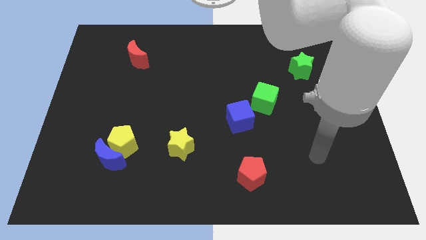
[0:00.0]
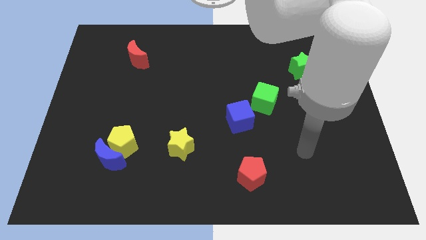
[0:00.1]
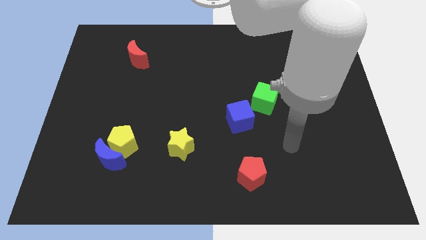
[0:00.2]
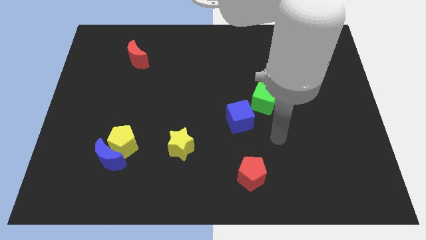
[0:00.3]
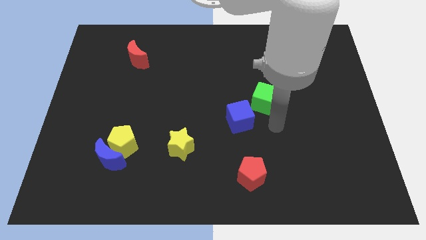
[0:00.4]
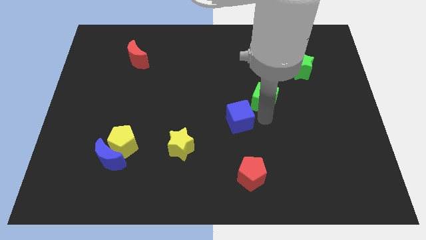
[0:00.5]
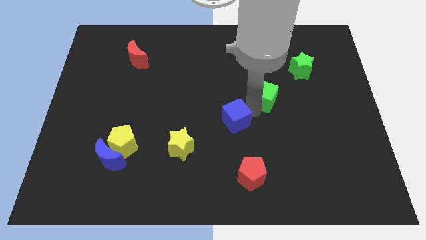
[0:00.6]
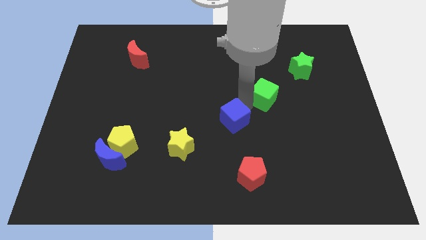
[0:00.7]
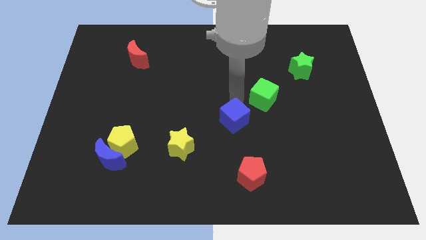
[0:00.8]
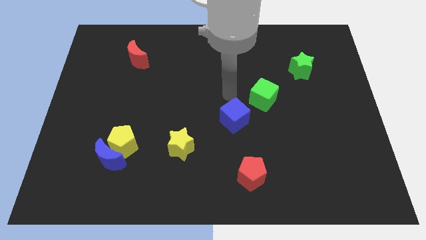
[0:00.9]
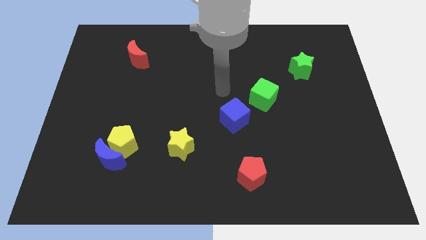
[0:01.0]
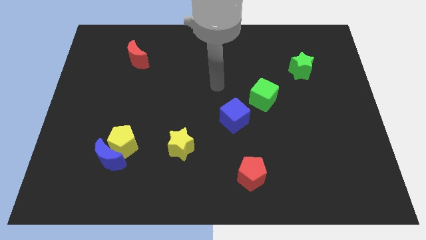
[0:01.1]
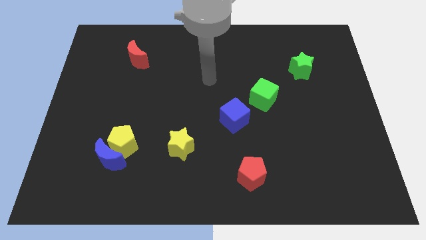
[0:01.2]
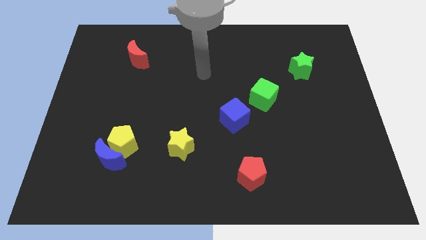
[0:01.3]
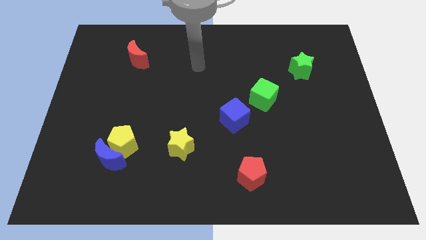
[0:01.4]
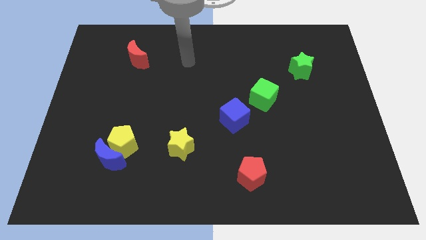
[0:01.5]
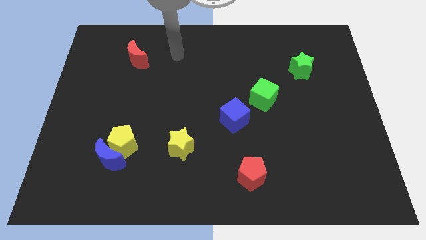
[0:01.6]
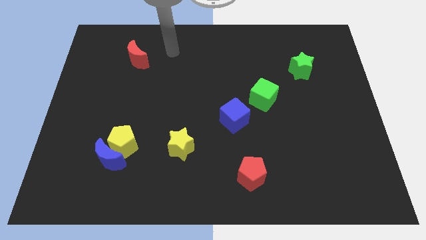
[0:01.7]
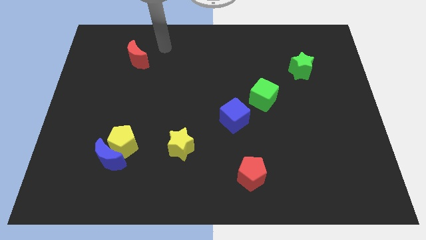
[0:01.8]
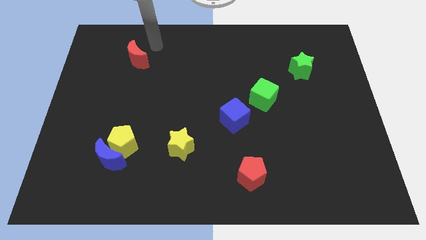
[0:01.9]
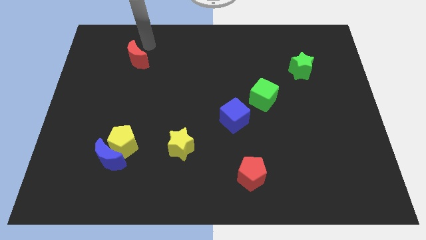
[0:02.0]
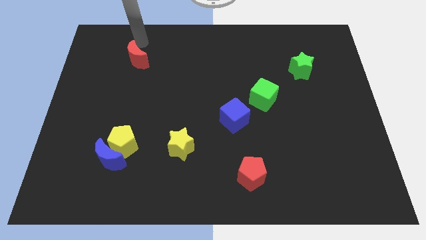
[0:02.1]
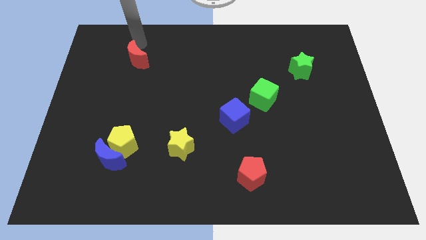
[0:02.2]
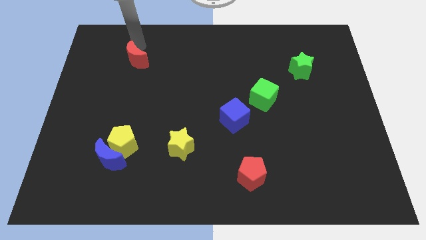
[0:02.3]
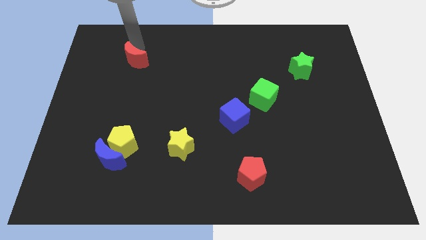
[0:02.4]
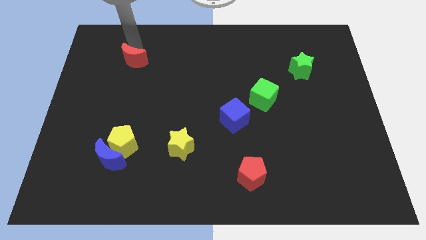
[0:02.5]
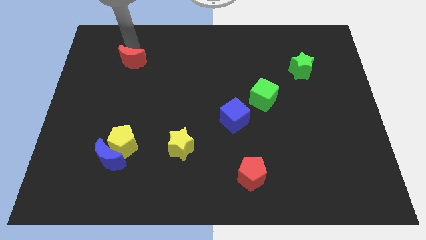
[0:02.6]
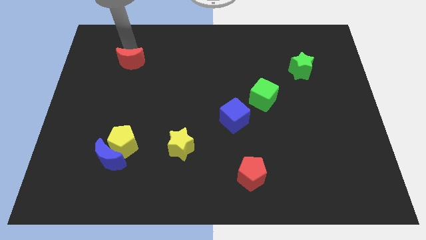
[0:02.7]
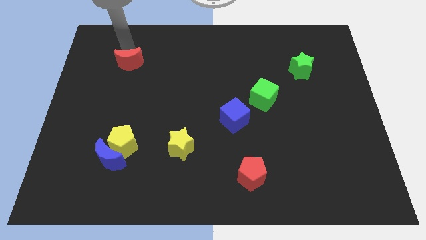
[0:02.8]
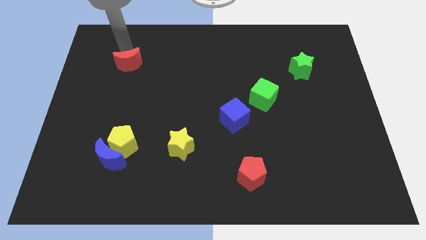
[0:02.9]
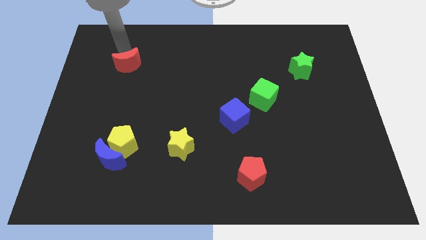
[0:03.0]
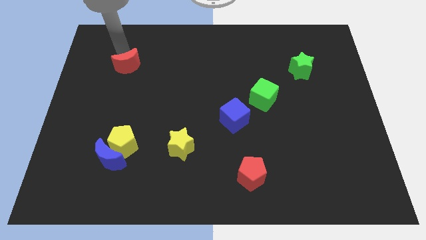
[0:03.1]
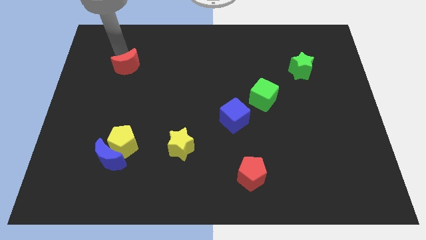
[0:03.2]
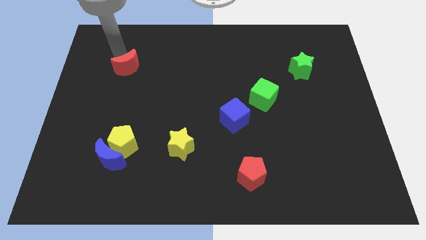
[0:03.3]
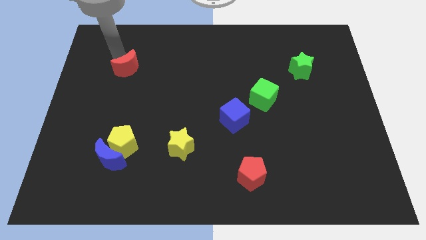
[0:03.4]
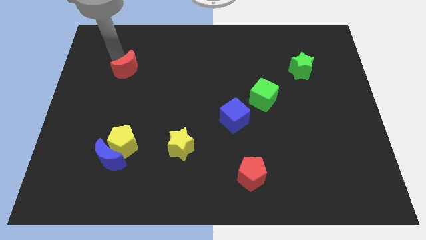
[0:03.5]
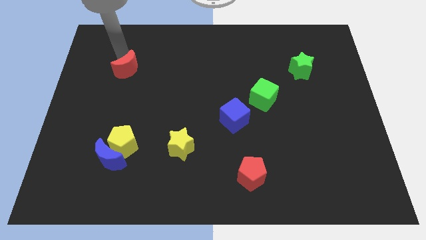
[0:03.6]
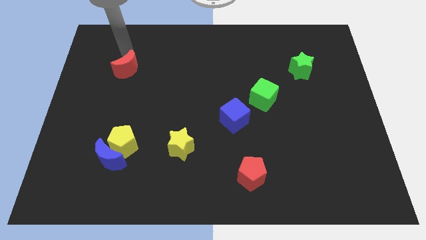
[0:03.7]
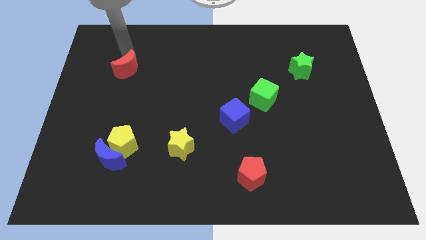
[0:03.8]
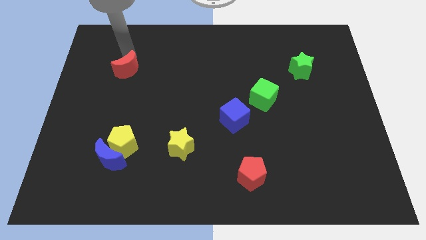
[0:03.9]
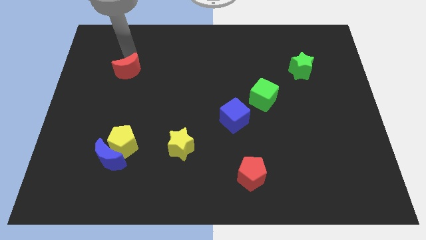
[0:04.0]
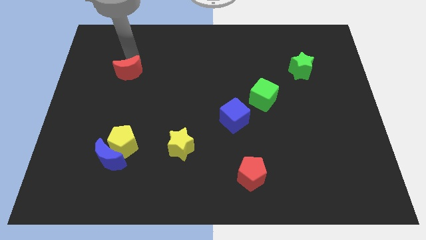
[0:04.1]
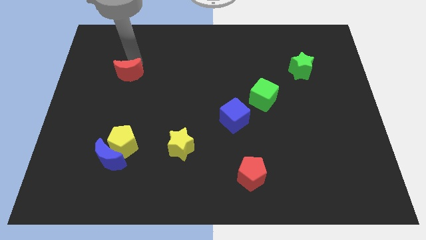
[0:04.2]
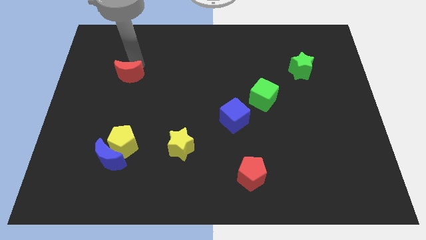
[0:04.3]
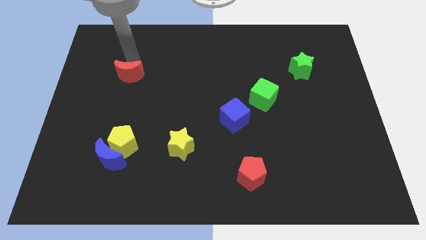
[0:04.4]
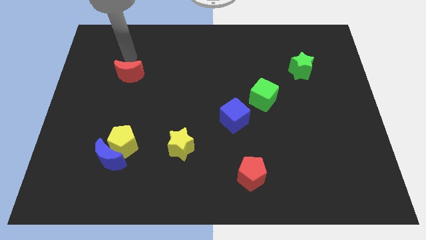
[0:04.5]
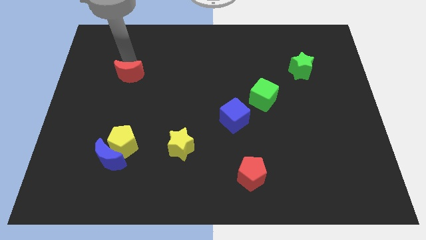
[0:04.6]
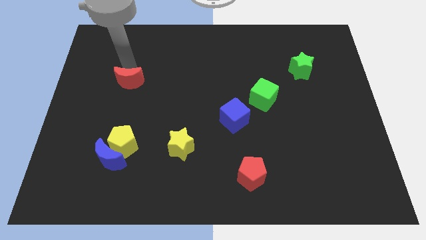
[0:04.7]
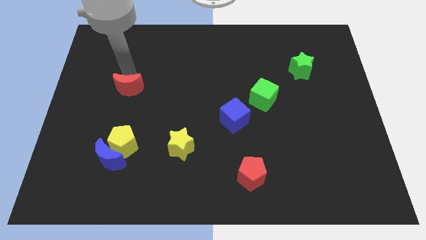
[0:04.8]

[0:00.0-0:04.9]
push the red moon above the yellow pentagon

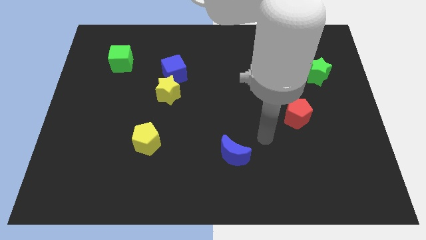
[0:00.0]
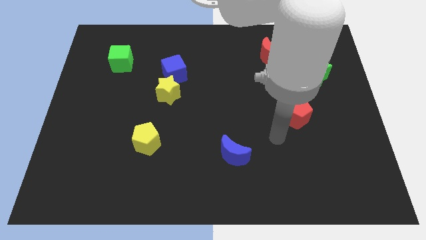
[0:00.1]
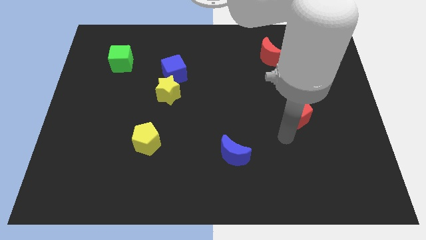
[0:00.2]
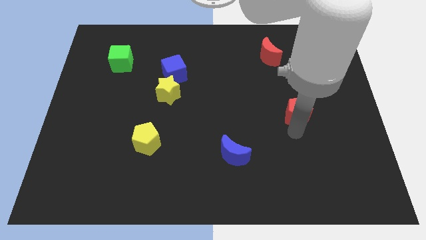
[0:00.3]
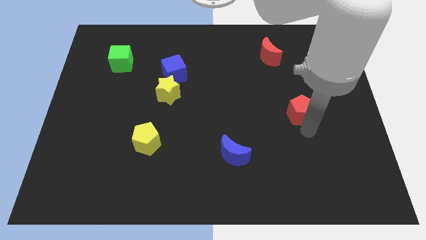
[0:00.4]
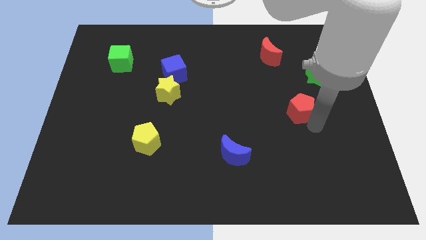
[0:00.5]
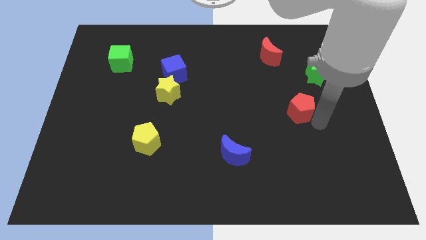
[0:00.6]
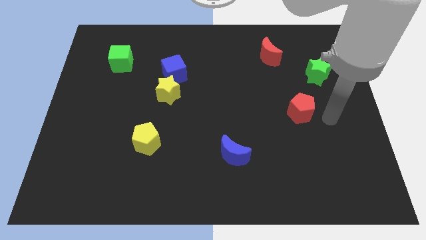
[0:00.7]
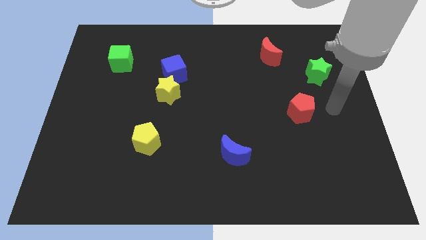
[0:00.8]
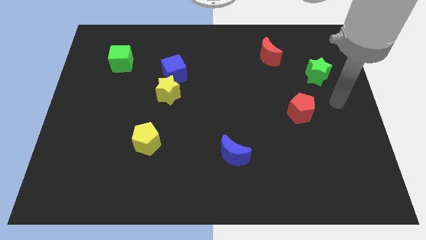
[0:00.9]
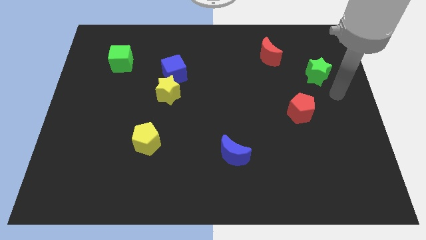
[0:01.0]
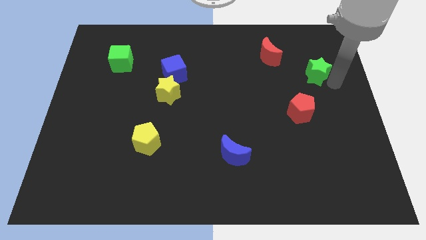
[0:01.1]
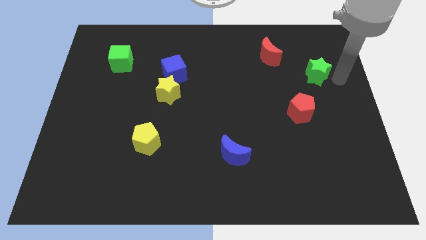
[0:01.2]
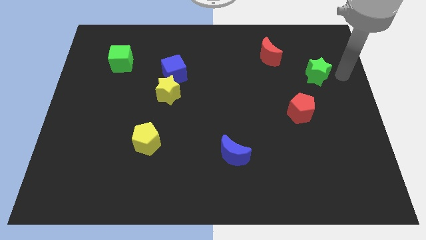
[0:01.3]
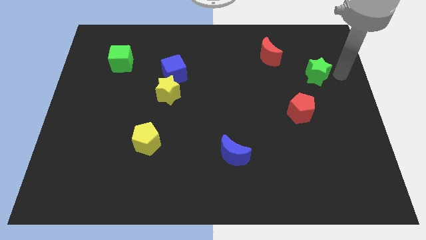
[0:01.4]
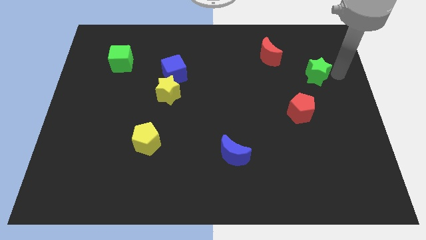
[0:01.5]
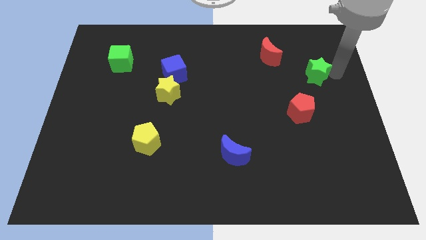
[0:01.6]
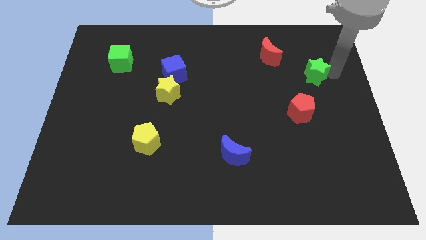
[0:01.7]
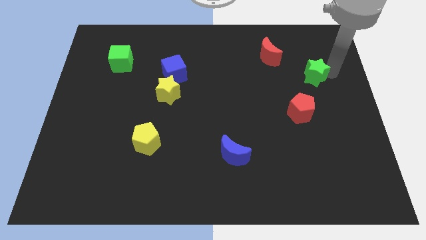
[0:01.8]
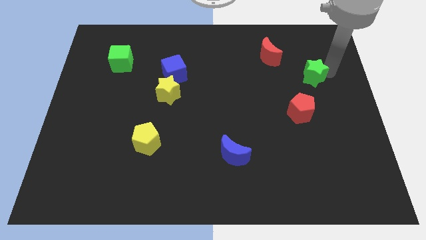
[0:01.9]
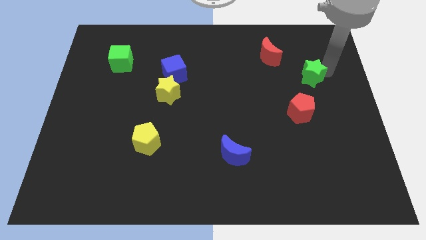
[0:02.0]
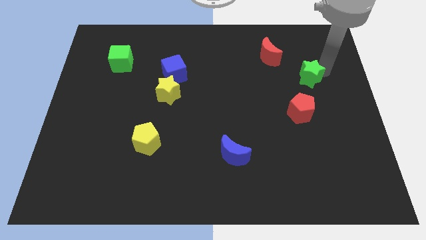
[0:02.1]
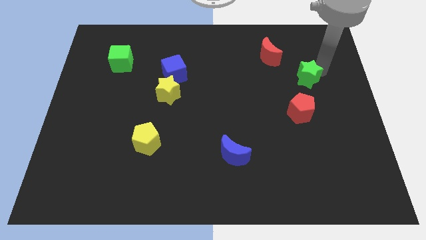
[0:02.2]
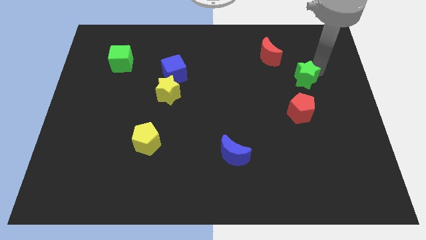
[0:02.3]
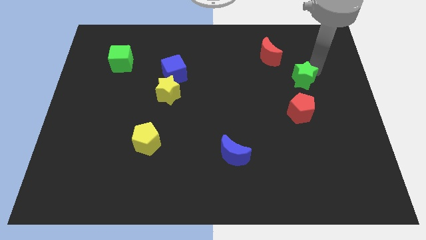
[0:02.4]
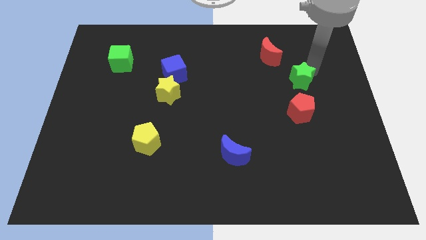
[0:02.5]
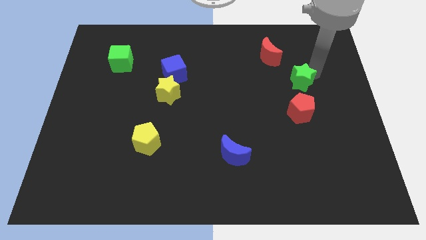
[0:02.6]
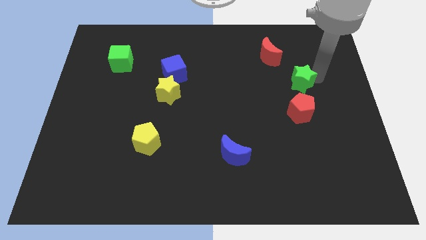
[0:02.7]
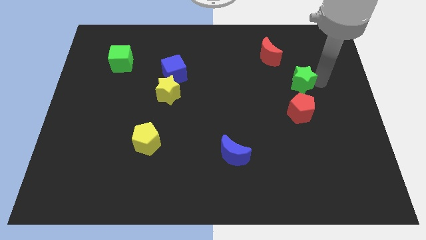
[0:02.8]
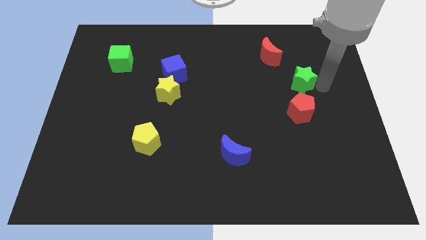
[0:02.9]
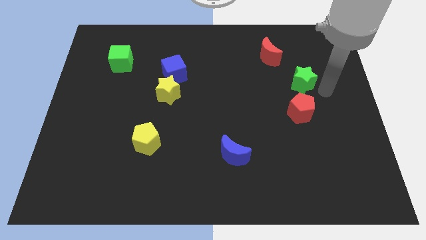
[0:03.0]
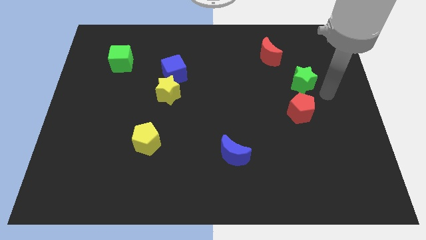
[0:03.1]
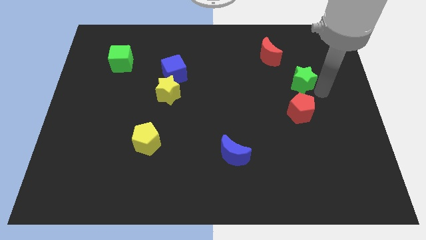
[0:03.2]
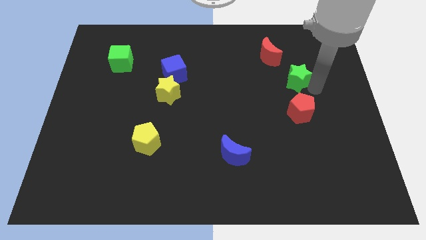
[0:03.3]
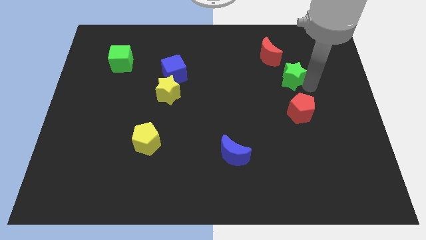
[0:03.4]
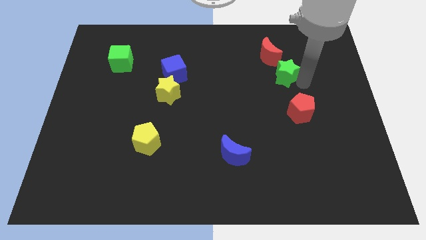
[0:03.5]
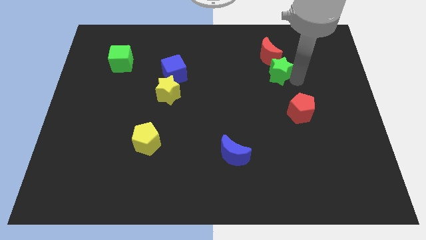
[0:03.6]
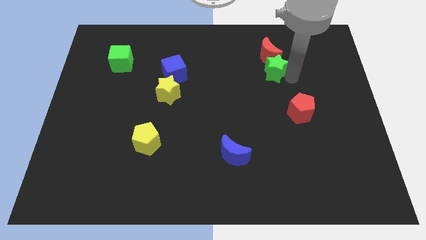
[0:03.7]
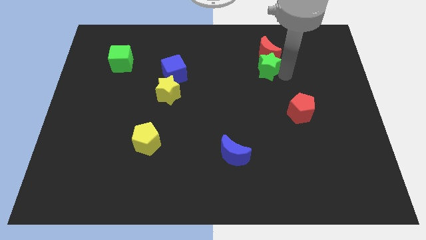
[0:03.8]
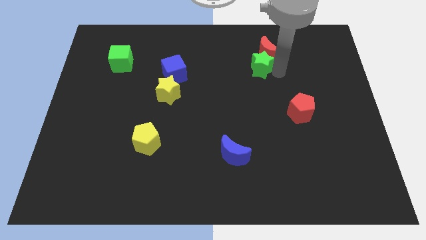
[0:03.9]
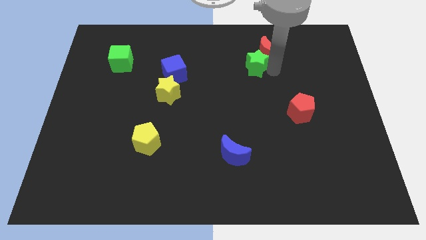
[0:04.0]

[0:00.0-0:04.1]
slide the green star just left of the red moon
